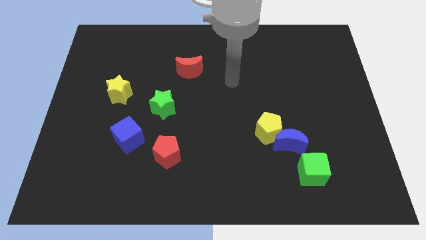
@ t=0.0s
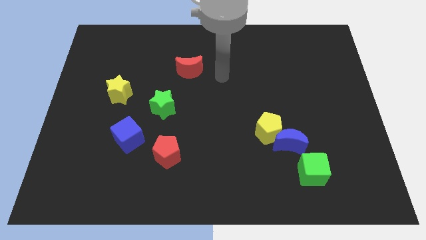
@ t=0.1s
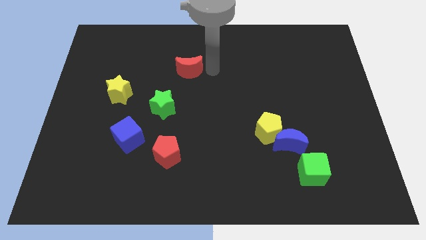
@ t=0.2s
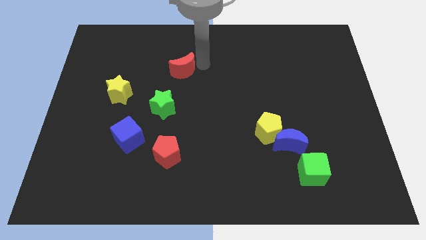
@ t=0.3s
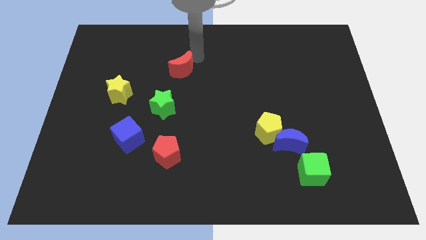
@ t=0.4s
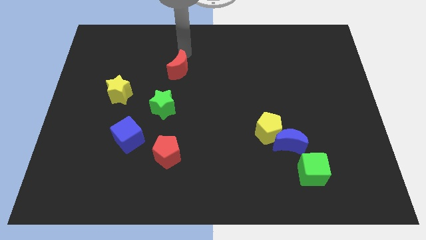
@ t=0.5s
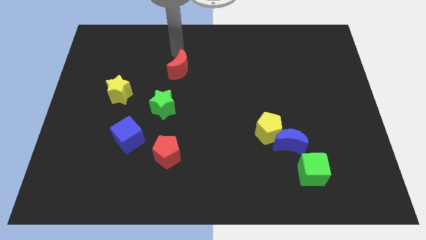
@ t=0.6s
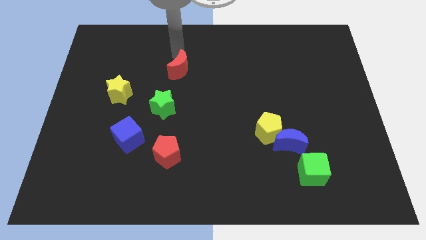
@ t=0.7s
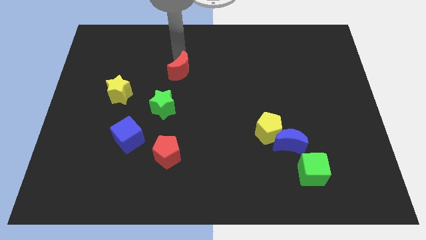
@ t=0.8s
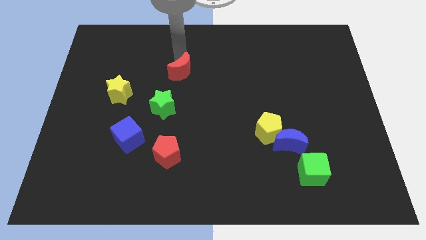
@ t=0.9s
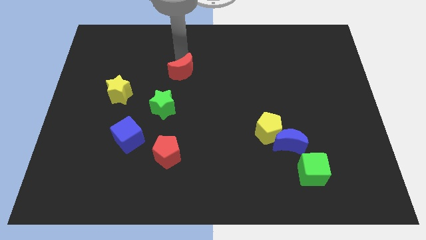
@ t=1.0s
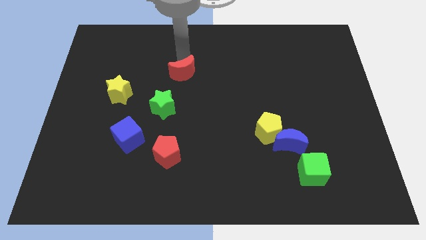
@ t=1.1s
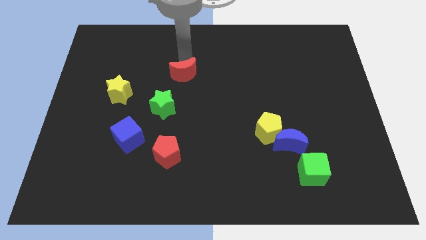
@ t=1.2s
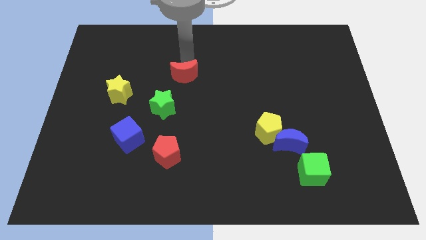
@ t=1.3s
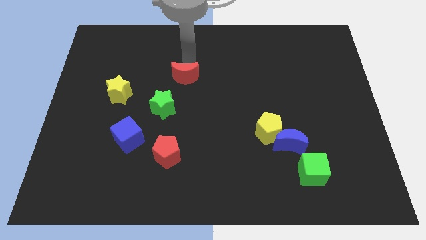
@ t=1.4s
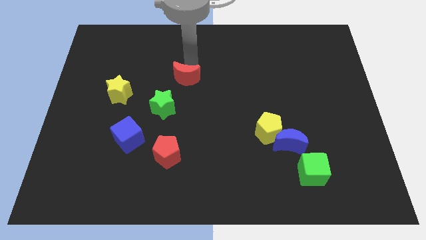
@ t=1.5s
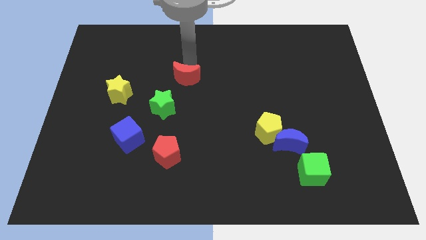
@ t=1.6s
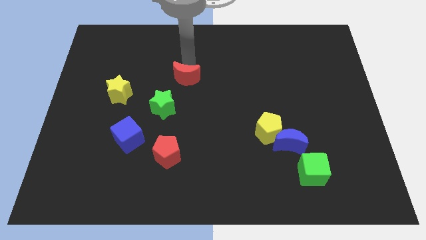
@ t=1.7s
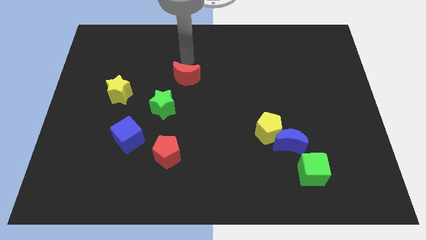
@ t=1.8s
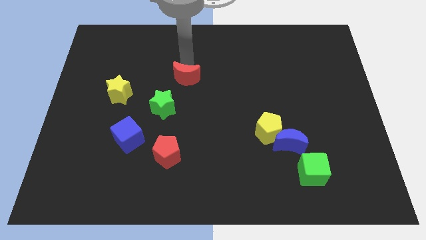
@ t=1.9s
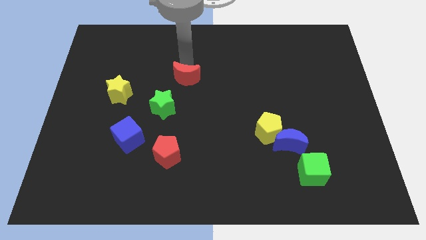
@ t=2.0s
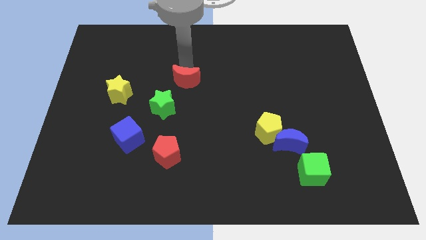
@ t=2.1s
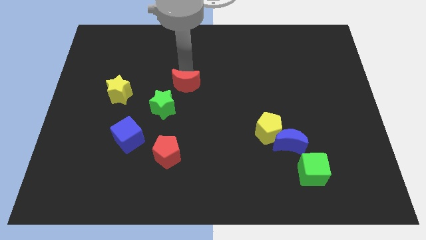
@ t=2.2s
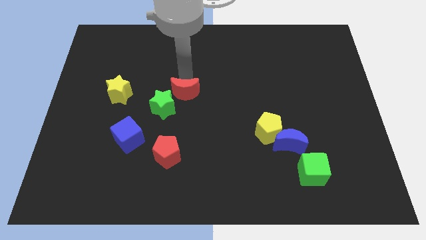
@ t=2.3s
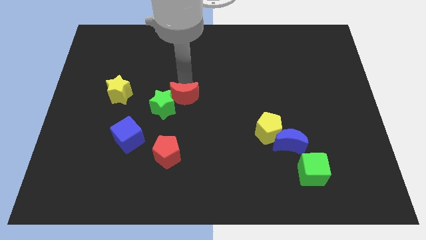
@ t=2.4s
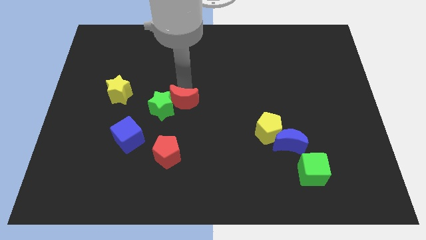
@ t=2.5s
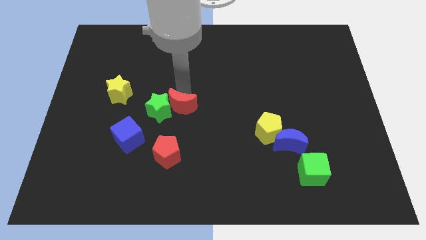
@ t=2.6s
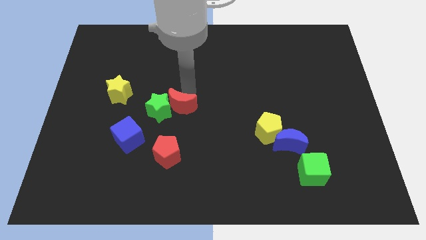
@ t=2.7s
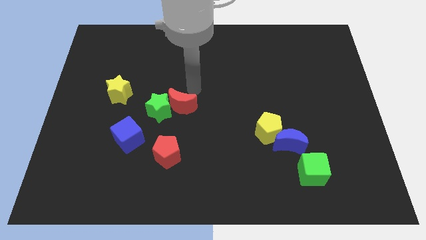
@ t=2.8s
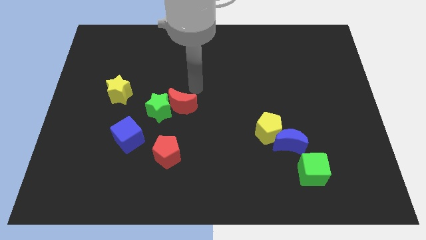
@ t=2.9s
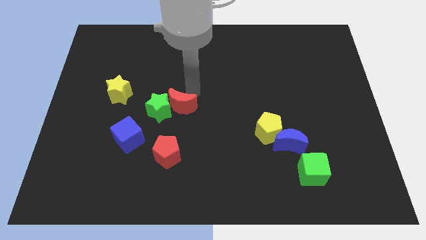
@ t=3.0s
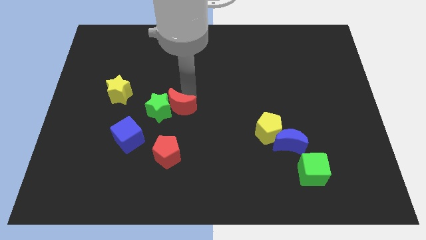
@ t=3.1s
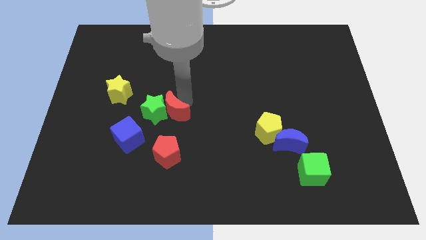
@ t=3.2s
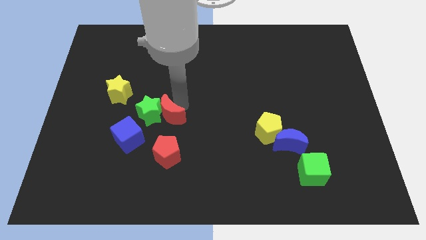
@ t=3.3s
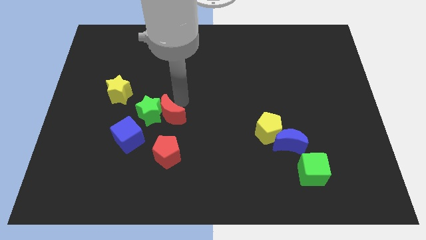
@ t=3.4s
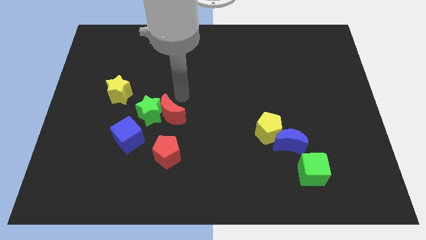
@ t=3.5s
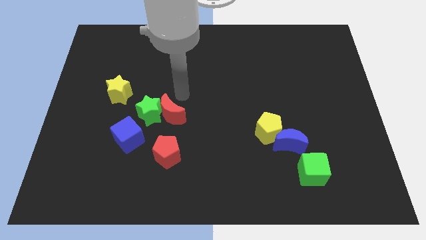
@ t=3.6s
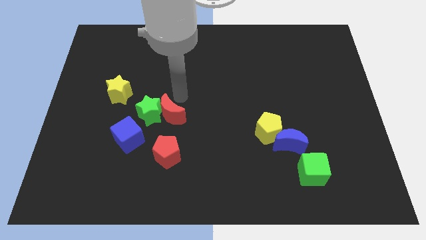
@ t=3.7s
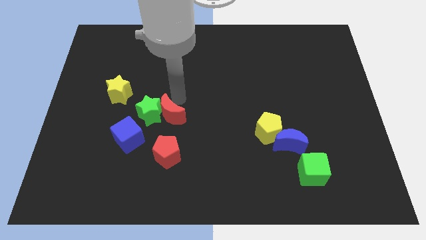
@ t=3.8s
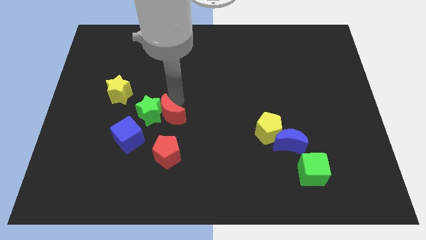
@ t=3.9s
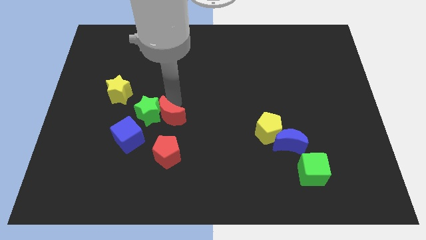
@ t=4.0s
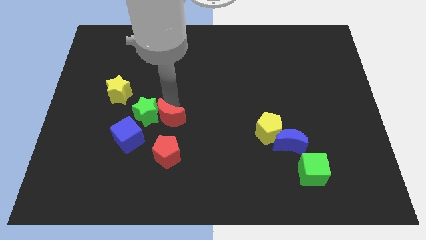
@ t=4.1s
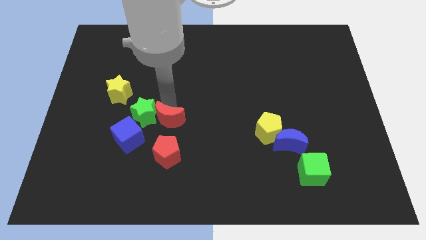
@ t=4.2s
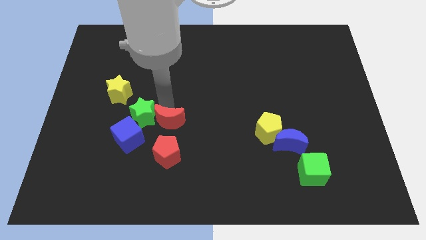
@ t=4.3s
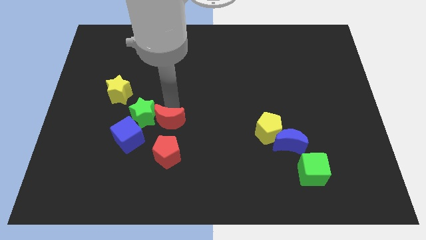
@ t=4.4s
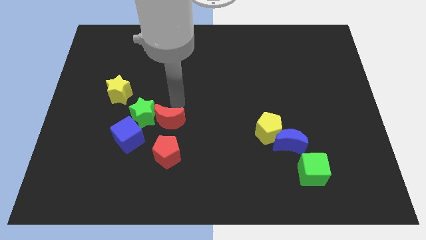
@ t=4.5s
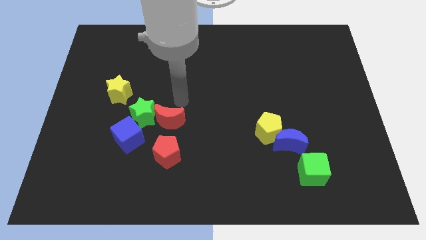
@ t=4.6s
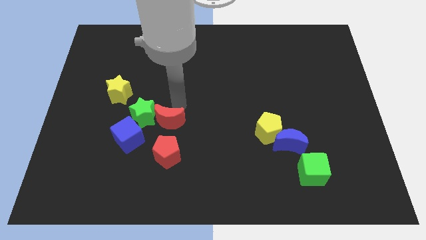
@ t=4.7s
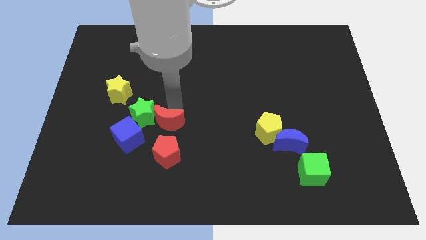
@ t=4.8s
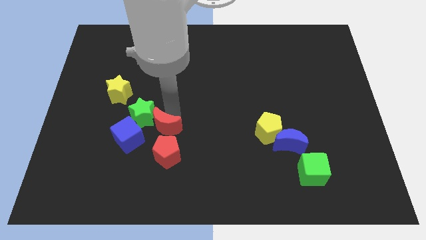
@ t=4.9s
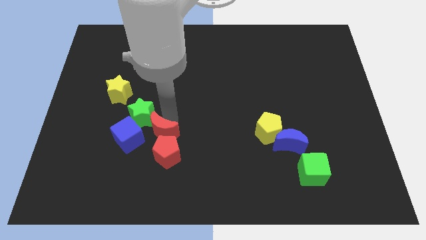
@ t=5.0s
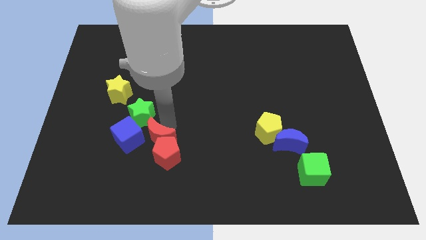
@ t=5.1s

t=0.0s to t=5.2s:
push the red moon to the bottom right side of the blue cube

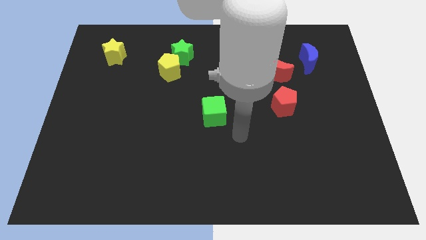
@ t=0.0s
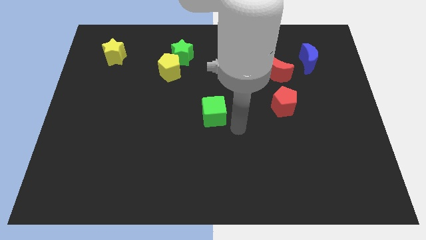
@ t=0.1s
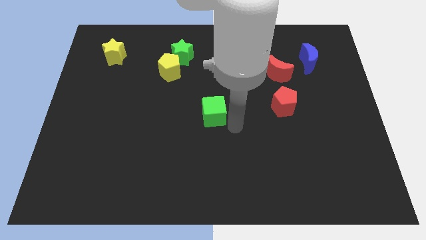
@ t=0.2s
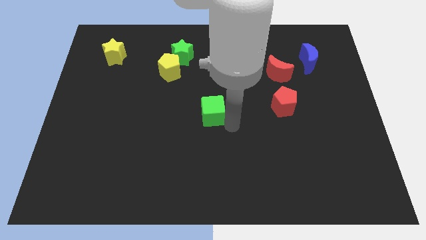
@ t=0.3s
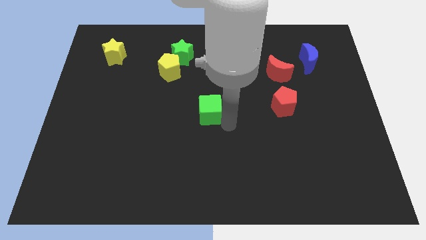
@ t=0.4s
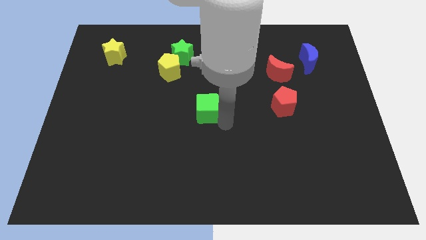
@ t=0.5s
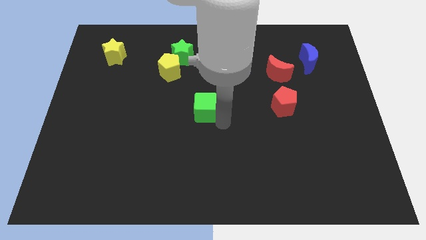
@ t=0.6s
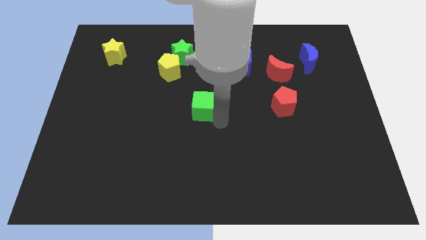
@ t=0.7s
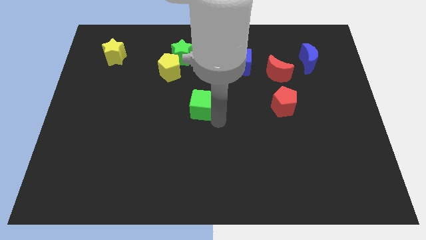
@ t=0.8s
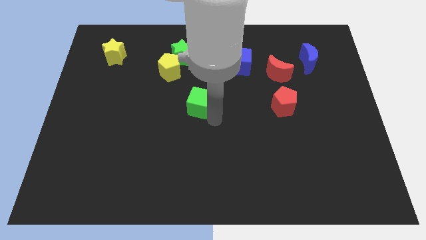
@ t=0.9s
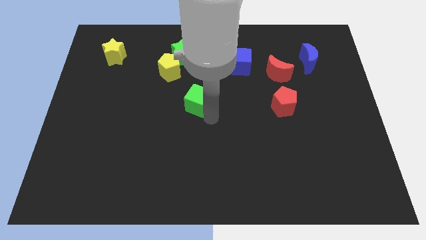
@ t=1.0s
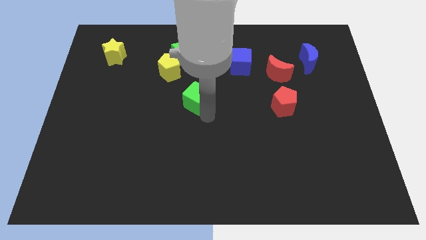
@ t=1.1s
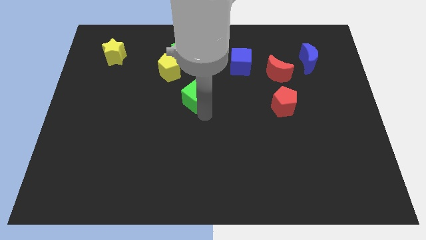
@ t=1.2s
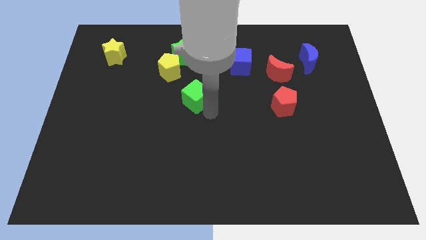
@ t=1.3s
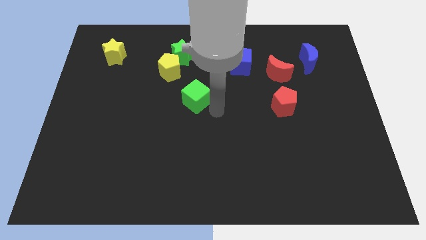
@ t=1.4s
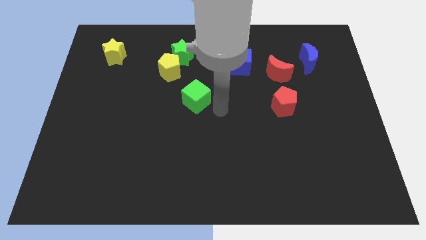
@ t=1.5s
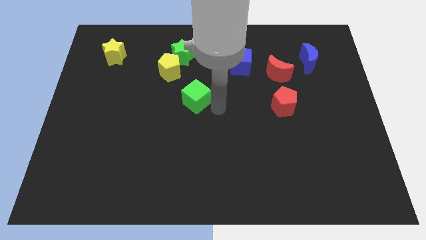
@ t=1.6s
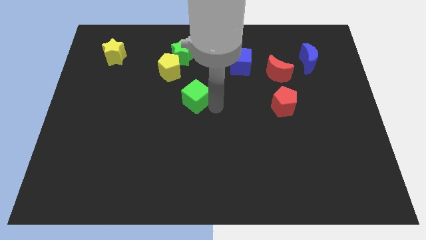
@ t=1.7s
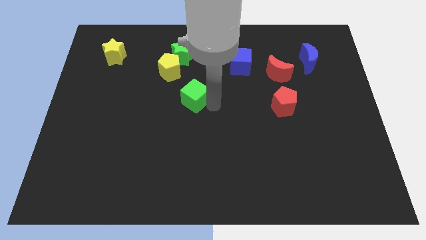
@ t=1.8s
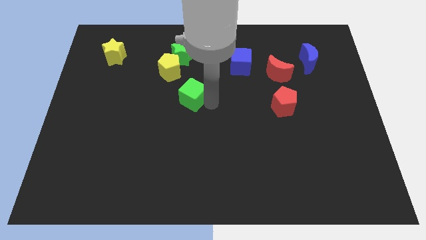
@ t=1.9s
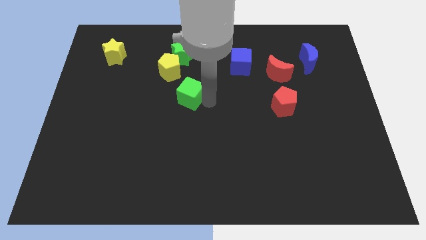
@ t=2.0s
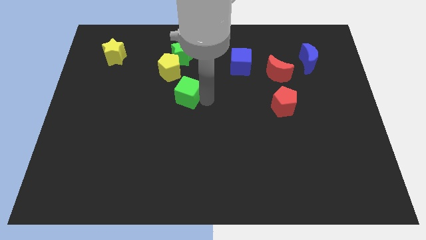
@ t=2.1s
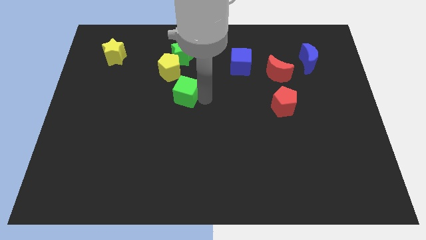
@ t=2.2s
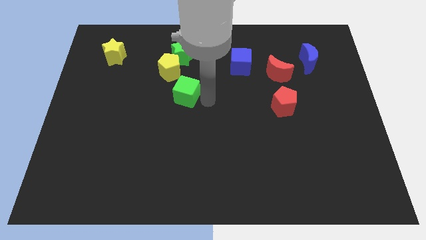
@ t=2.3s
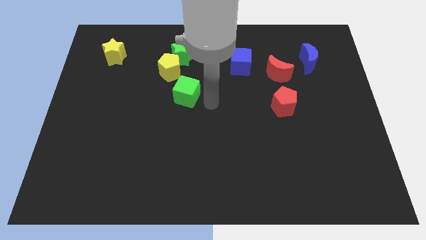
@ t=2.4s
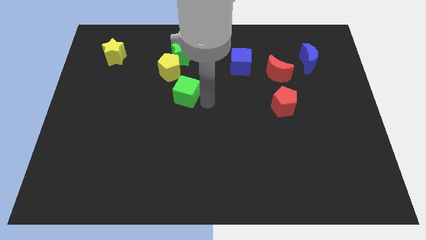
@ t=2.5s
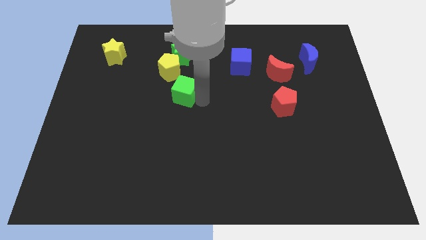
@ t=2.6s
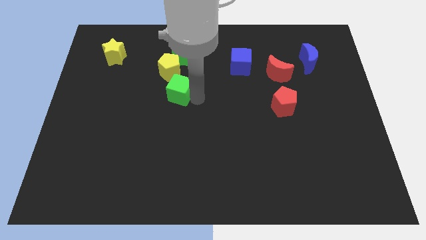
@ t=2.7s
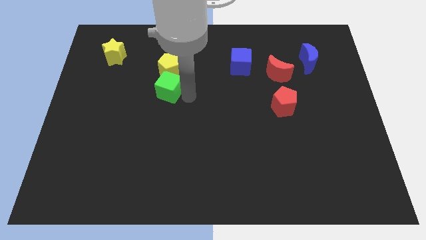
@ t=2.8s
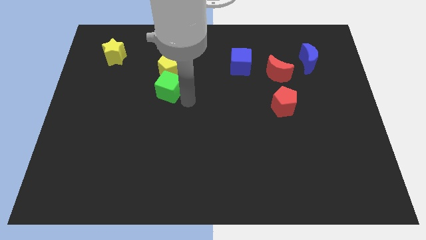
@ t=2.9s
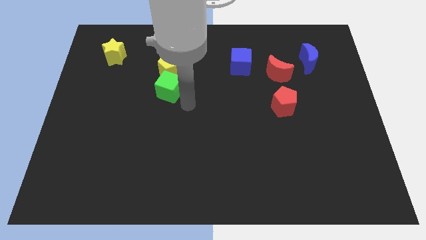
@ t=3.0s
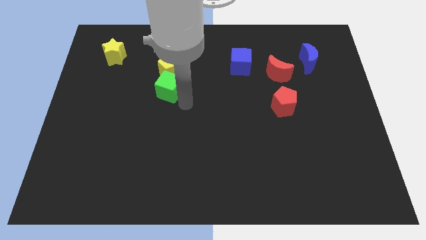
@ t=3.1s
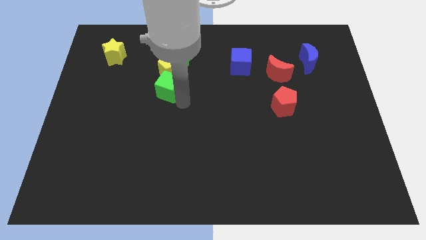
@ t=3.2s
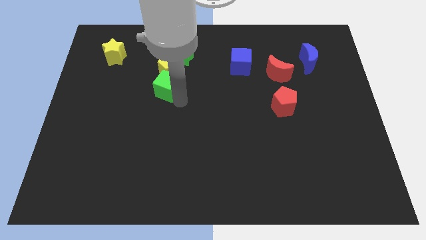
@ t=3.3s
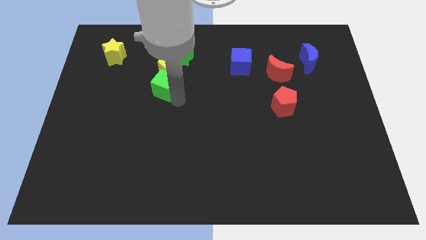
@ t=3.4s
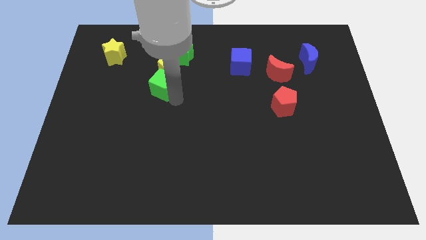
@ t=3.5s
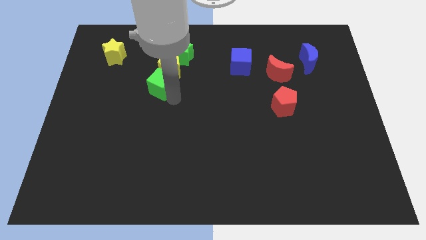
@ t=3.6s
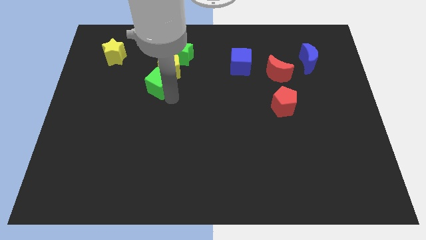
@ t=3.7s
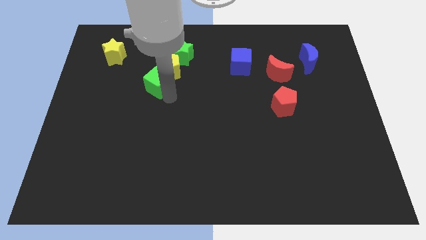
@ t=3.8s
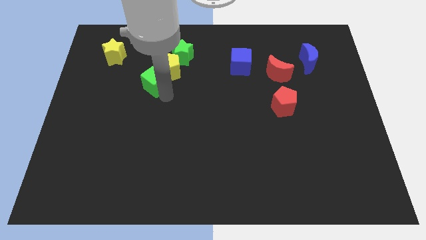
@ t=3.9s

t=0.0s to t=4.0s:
put the green cube to the left side of the yellow pentagon
